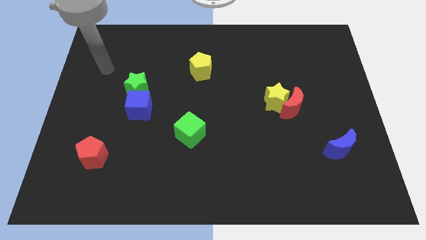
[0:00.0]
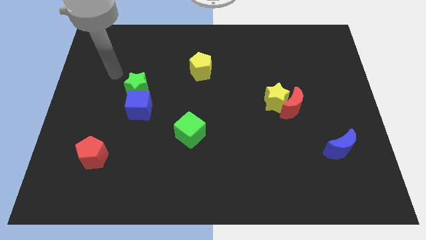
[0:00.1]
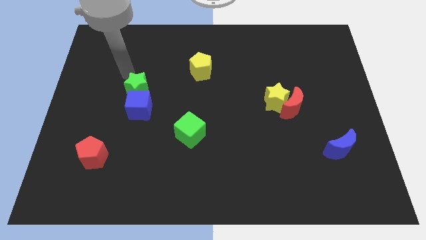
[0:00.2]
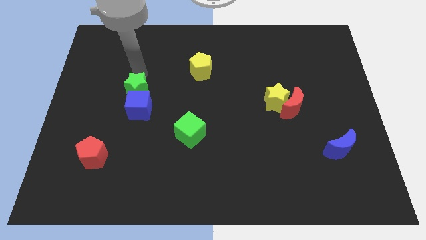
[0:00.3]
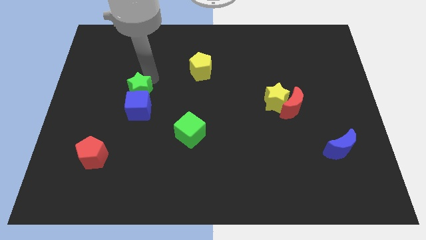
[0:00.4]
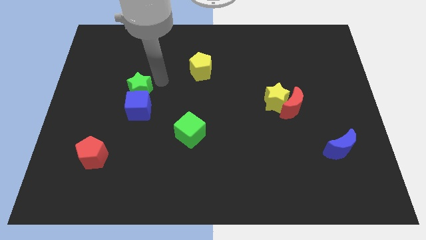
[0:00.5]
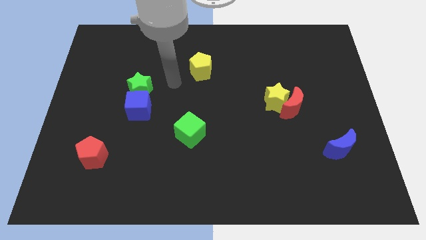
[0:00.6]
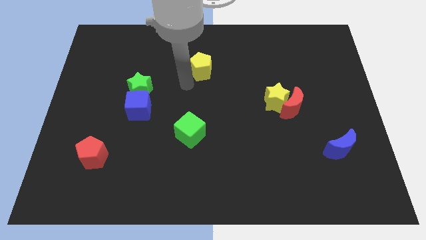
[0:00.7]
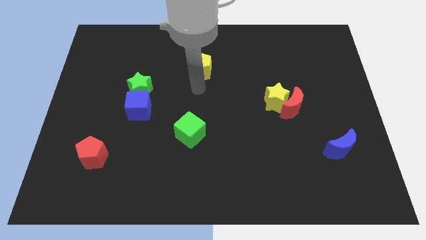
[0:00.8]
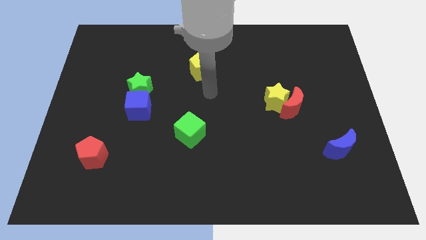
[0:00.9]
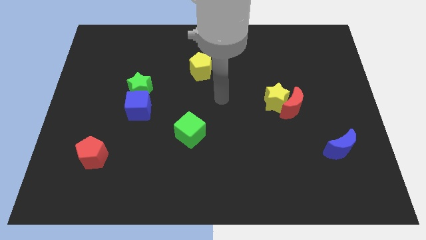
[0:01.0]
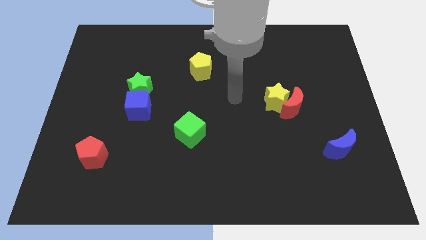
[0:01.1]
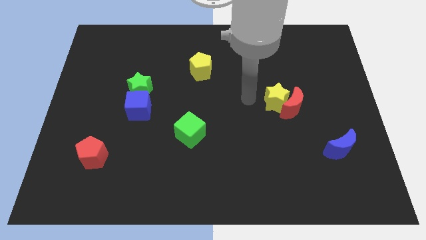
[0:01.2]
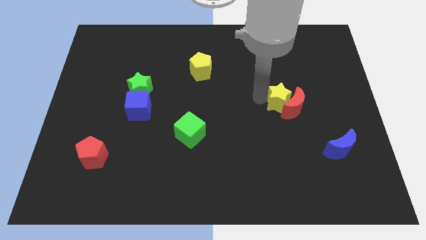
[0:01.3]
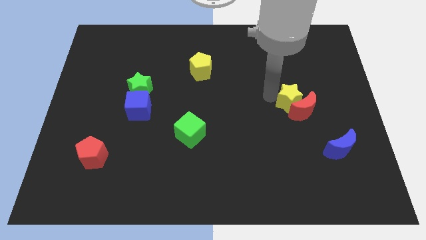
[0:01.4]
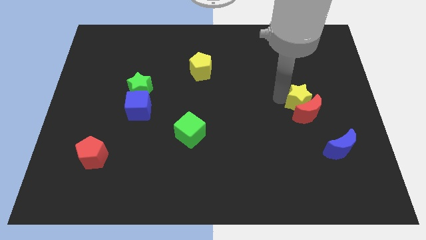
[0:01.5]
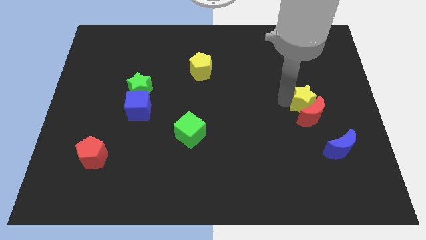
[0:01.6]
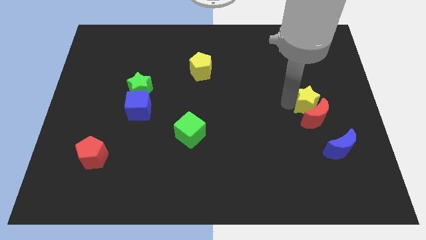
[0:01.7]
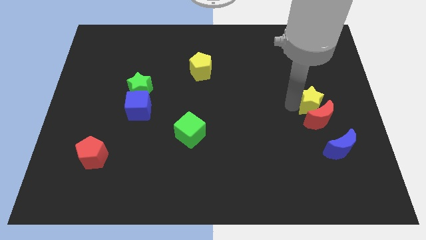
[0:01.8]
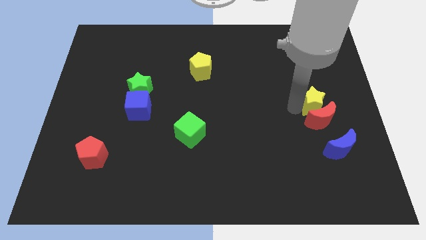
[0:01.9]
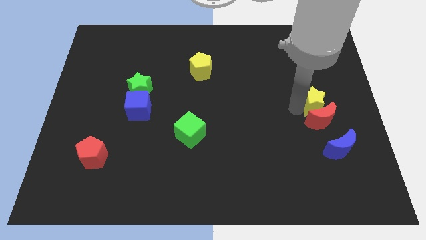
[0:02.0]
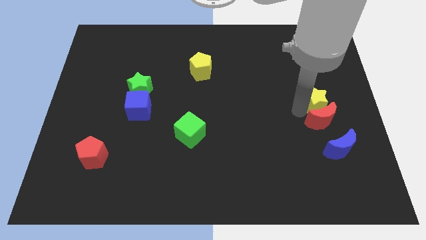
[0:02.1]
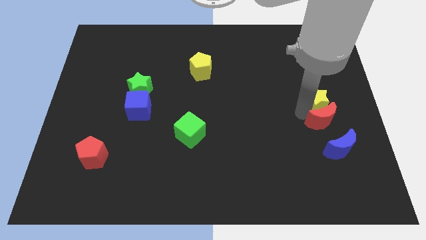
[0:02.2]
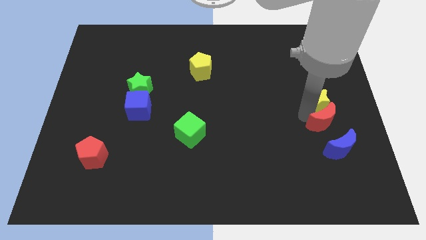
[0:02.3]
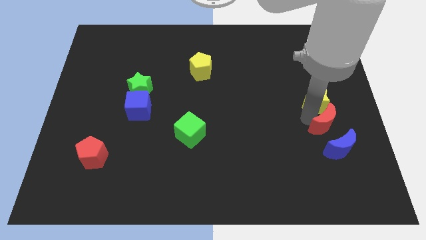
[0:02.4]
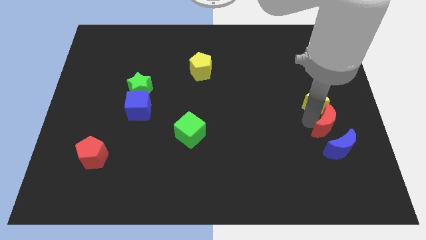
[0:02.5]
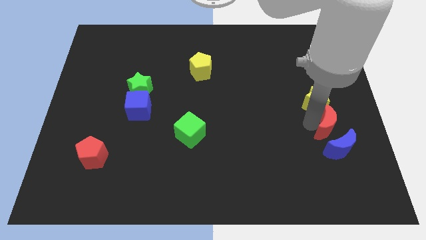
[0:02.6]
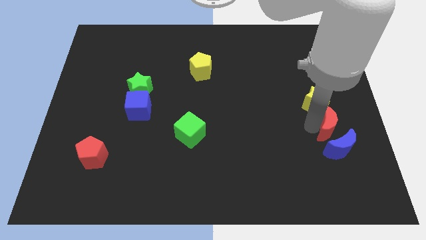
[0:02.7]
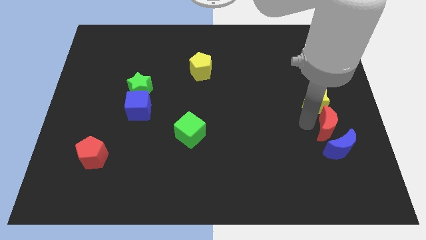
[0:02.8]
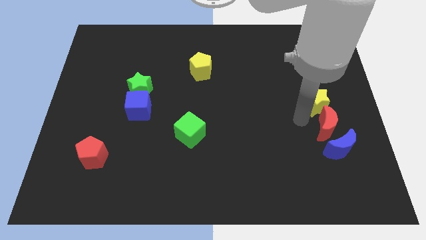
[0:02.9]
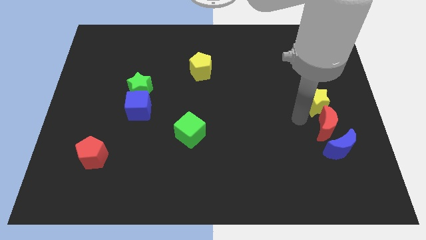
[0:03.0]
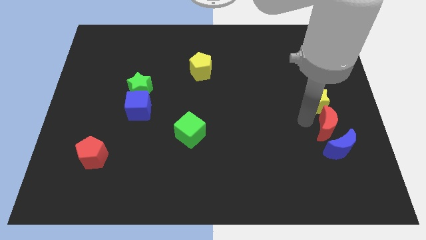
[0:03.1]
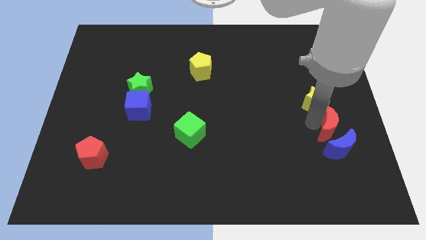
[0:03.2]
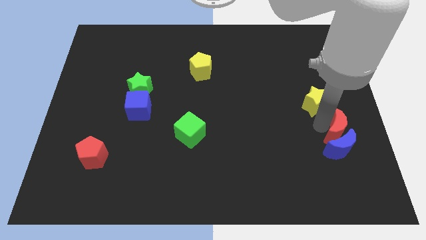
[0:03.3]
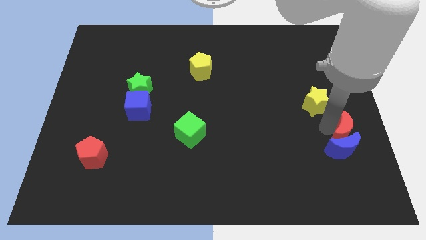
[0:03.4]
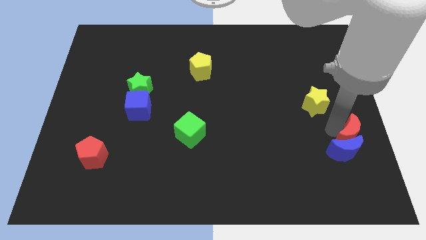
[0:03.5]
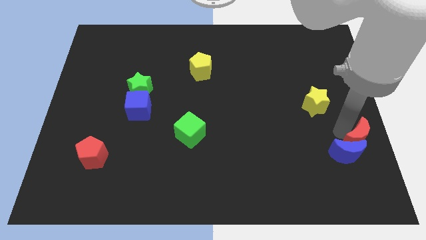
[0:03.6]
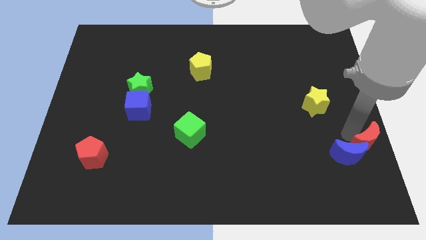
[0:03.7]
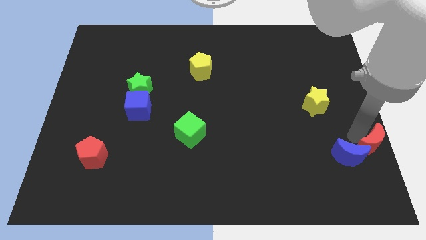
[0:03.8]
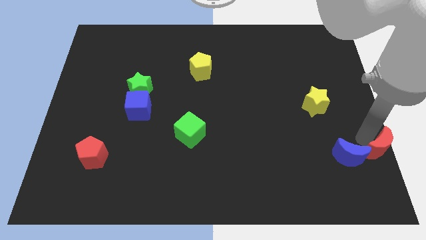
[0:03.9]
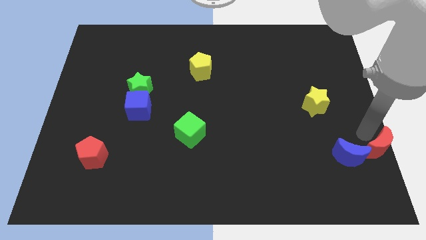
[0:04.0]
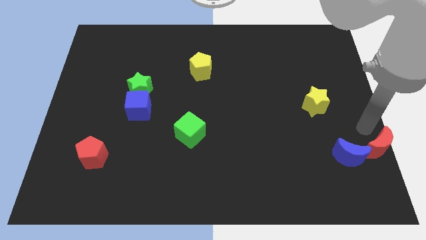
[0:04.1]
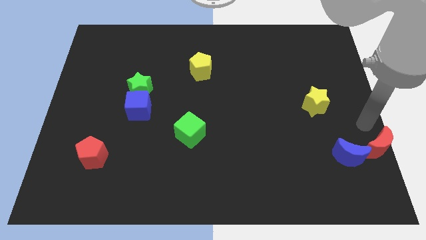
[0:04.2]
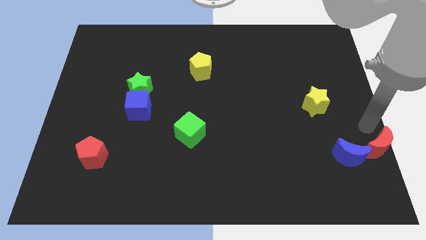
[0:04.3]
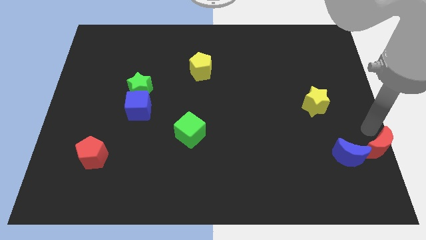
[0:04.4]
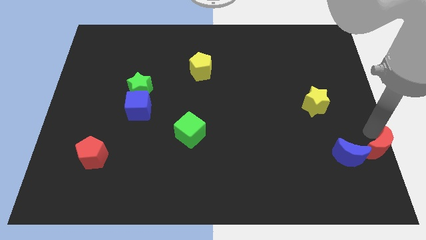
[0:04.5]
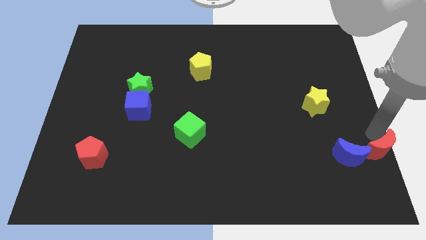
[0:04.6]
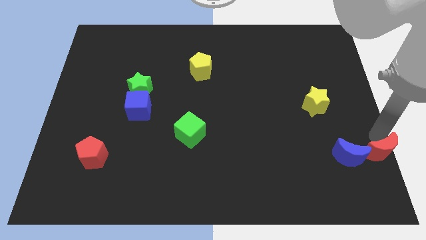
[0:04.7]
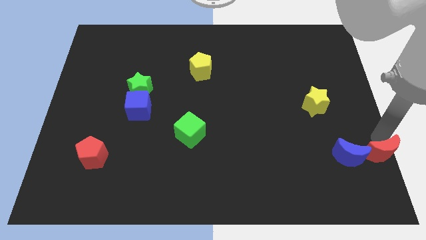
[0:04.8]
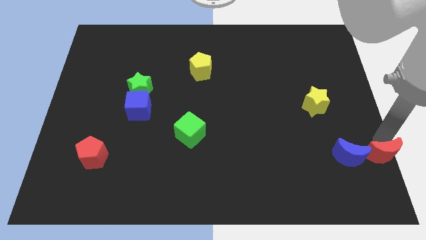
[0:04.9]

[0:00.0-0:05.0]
slide the red moon to the lower right corner

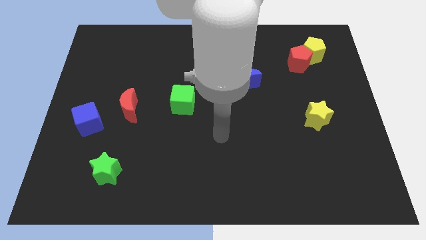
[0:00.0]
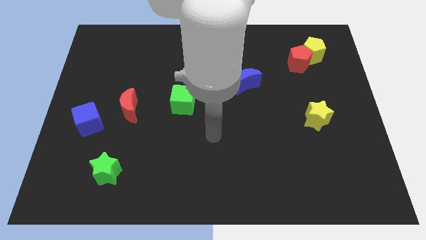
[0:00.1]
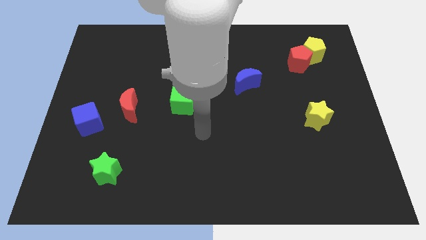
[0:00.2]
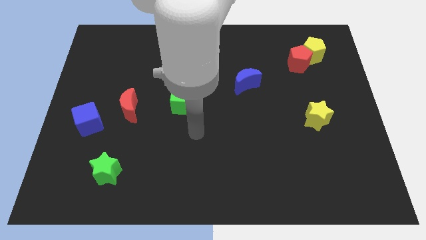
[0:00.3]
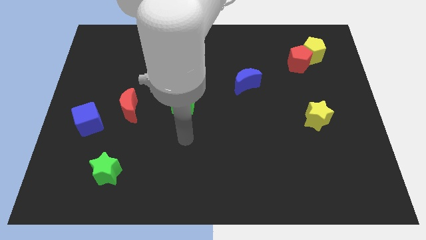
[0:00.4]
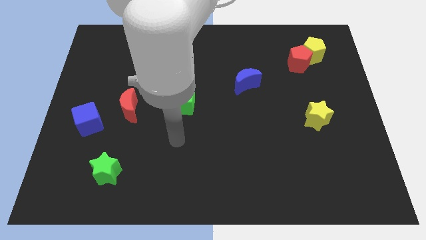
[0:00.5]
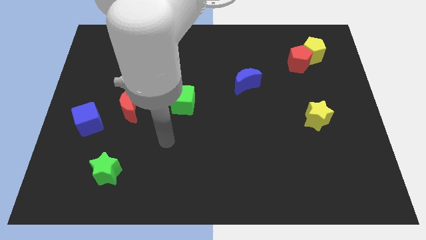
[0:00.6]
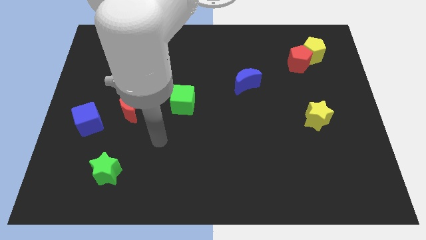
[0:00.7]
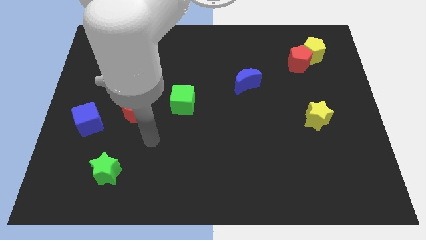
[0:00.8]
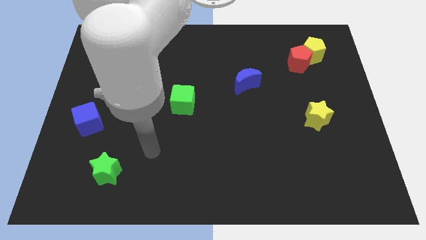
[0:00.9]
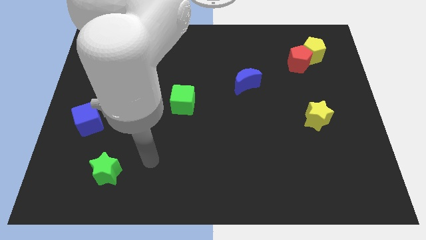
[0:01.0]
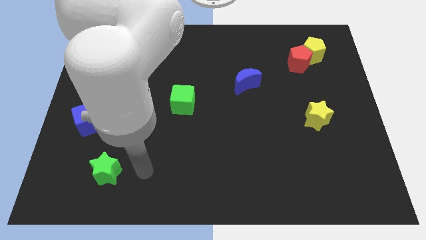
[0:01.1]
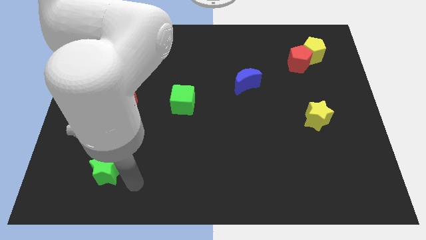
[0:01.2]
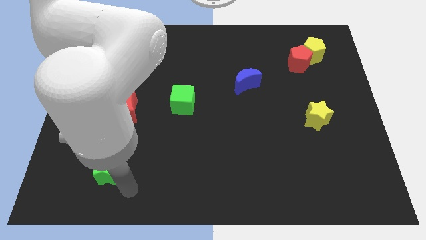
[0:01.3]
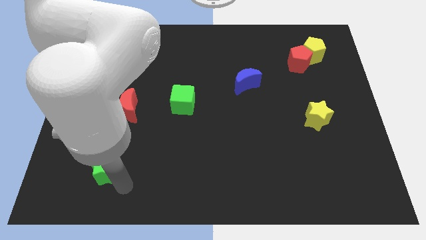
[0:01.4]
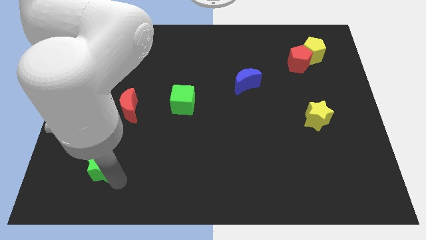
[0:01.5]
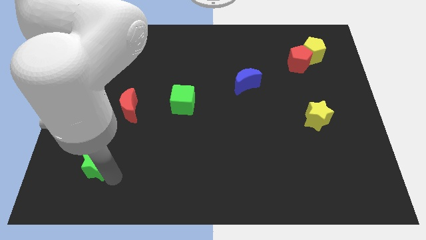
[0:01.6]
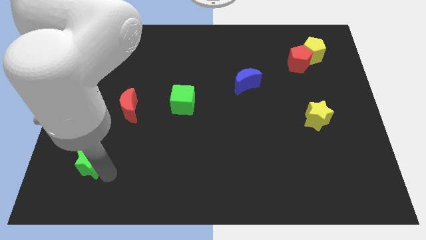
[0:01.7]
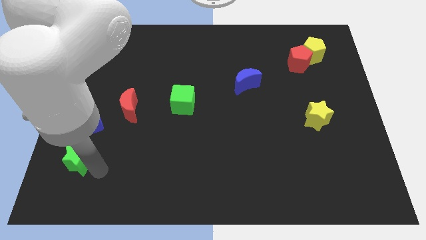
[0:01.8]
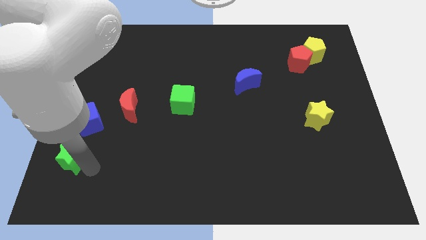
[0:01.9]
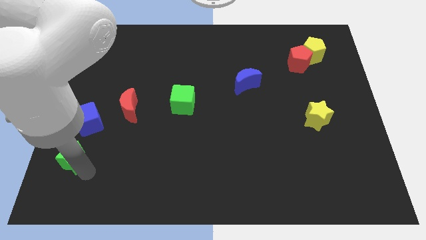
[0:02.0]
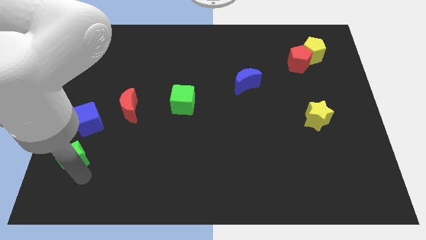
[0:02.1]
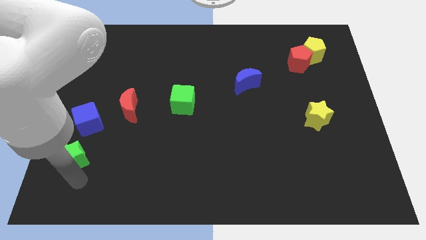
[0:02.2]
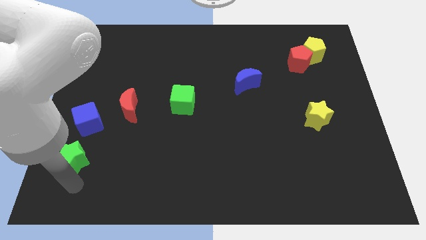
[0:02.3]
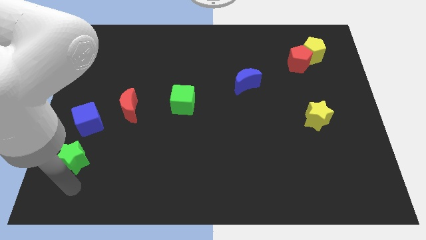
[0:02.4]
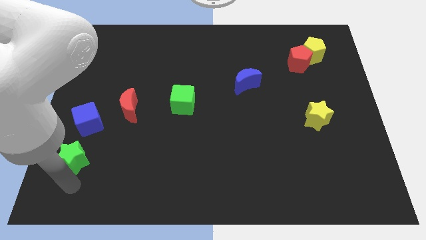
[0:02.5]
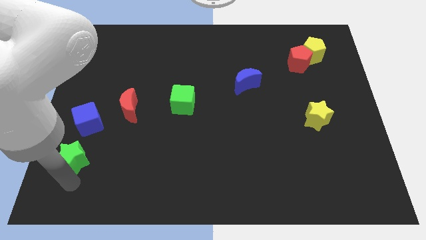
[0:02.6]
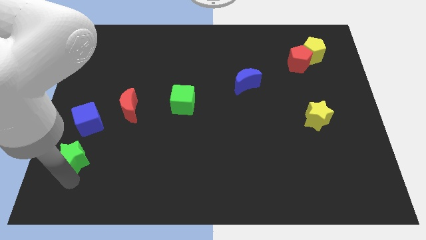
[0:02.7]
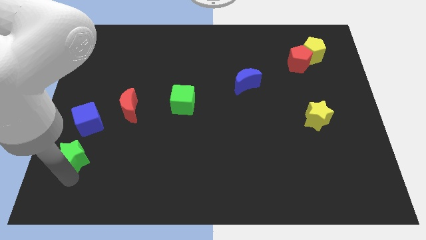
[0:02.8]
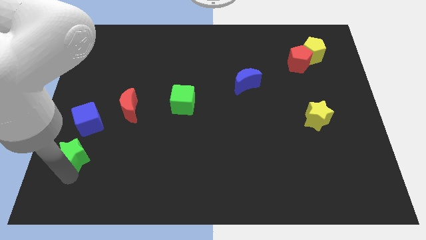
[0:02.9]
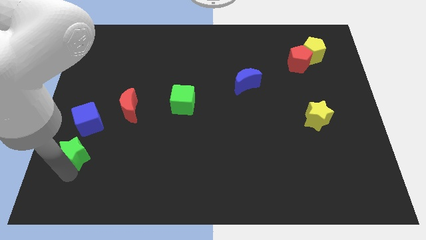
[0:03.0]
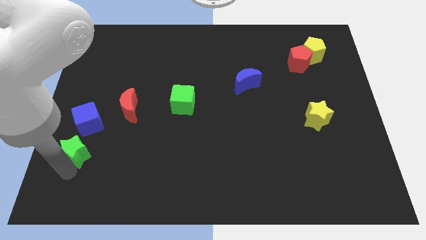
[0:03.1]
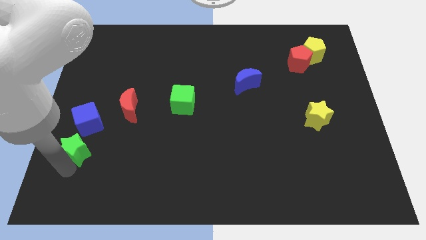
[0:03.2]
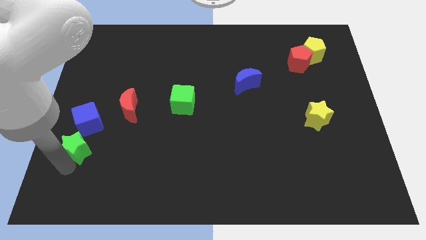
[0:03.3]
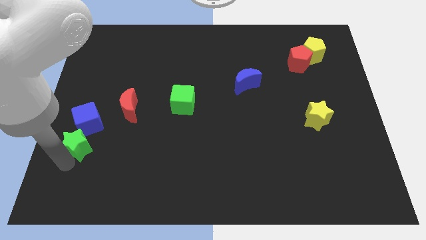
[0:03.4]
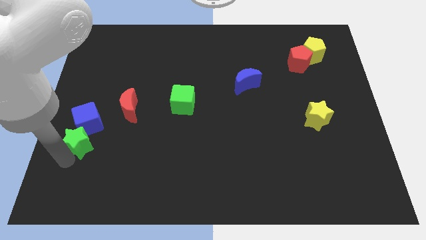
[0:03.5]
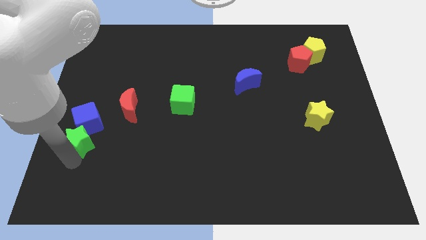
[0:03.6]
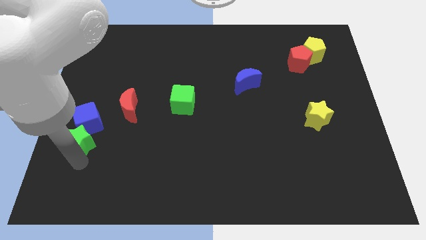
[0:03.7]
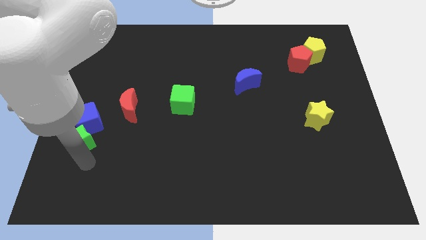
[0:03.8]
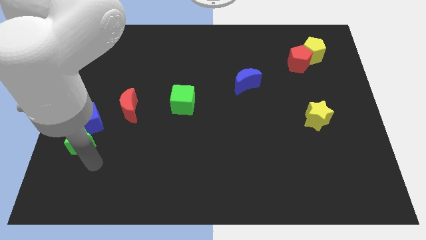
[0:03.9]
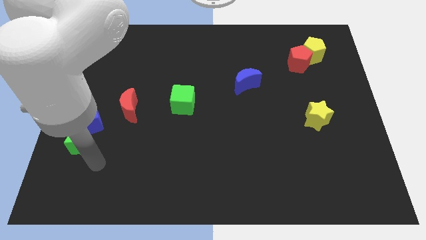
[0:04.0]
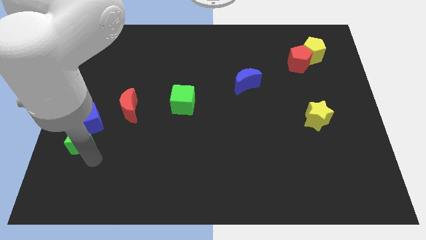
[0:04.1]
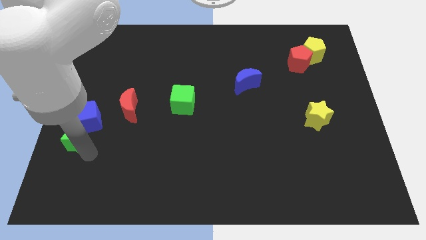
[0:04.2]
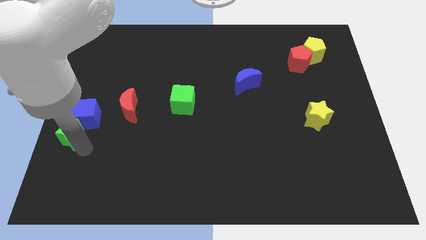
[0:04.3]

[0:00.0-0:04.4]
push the green star to the center left
